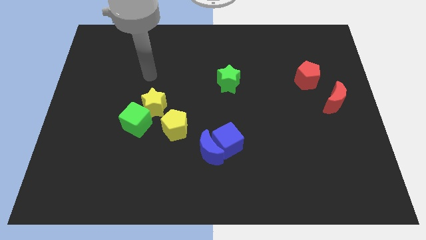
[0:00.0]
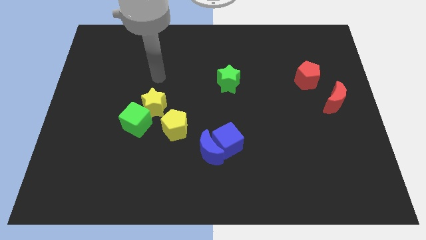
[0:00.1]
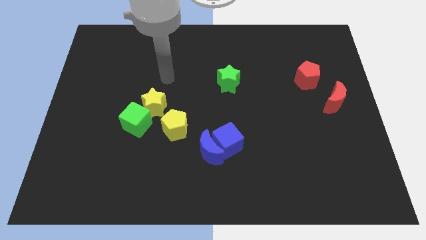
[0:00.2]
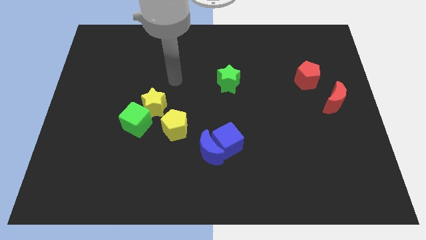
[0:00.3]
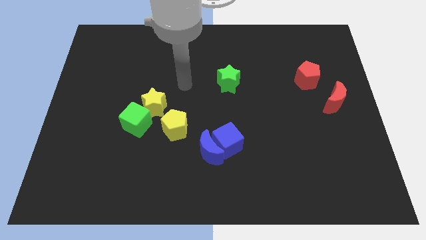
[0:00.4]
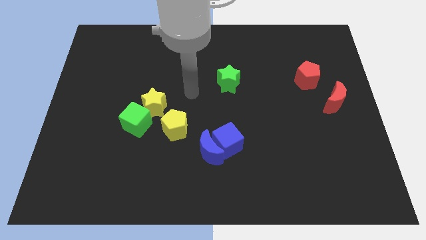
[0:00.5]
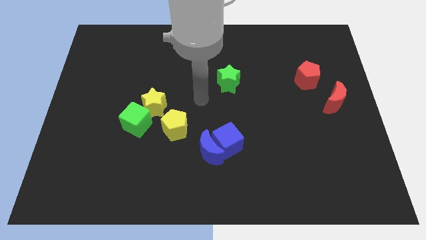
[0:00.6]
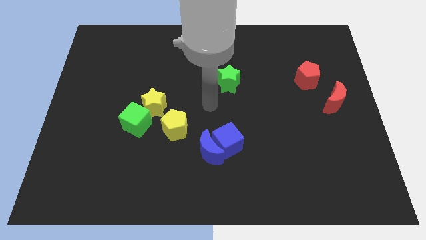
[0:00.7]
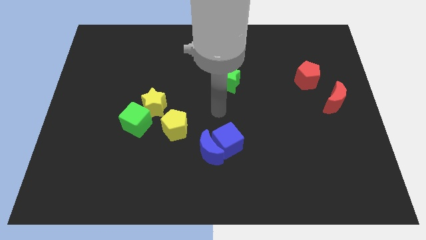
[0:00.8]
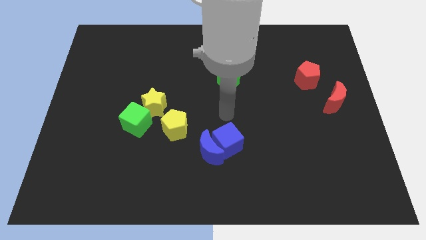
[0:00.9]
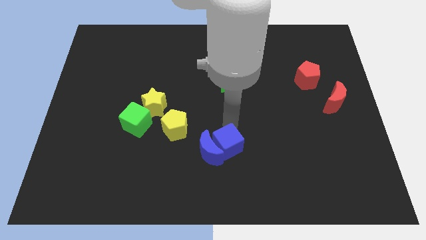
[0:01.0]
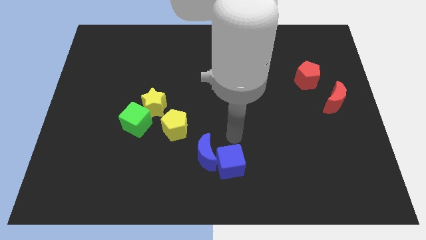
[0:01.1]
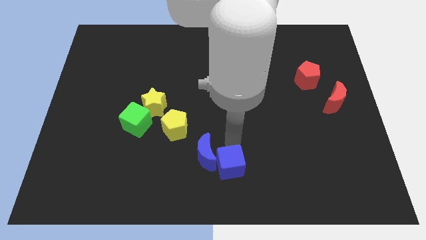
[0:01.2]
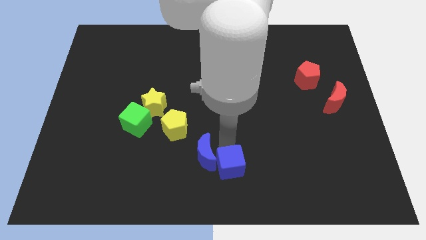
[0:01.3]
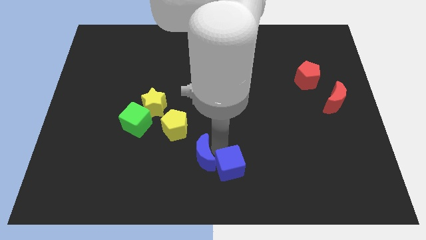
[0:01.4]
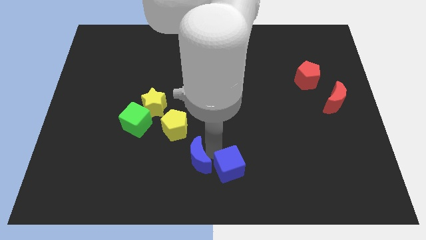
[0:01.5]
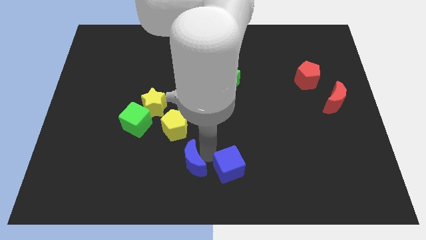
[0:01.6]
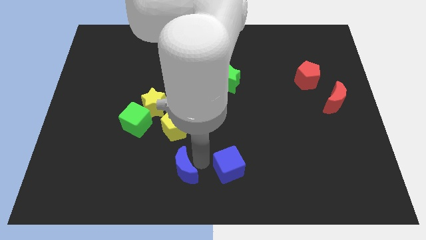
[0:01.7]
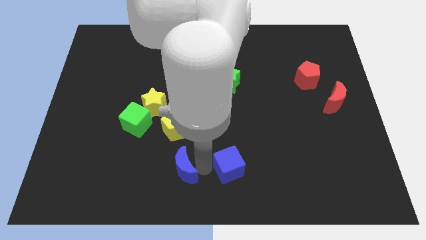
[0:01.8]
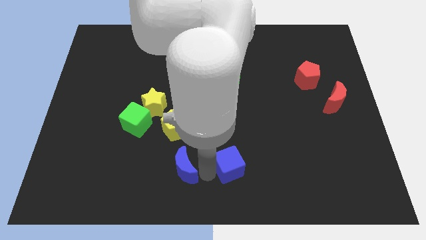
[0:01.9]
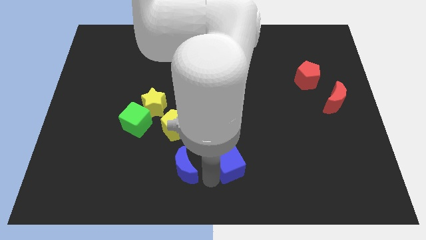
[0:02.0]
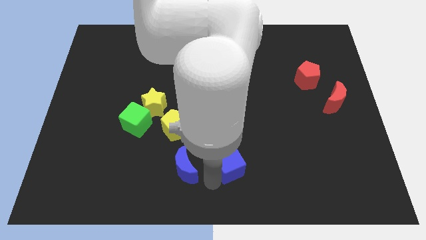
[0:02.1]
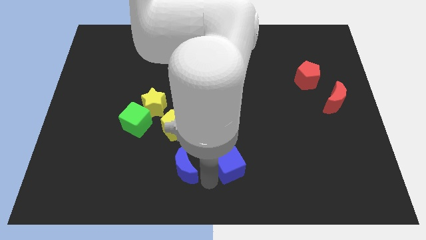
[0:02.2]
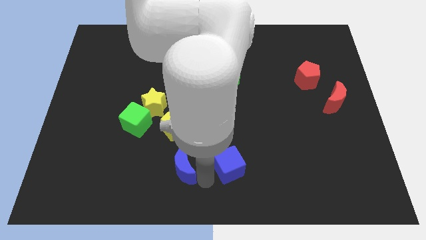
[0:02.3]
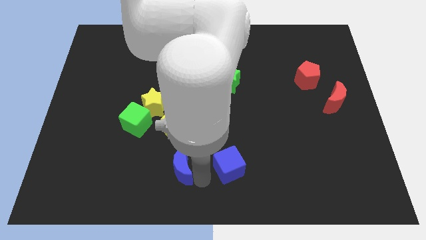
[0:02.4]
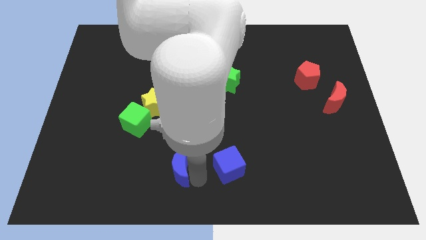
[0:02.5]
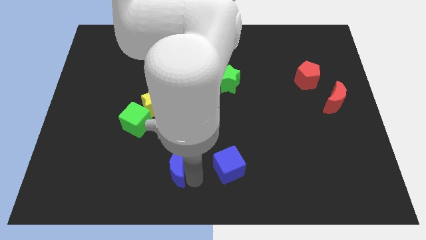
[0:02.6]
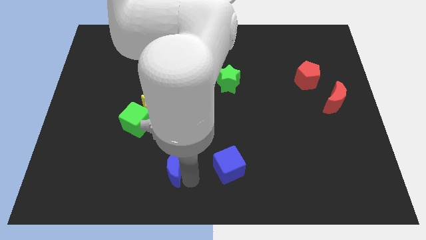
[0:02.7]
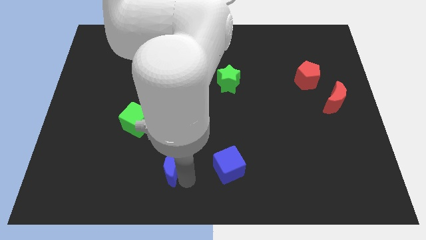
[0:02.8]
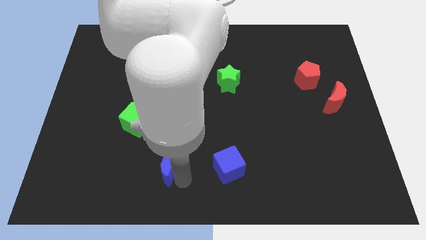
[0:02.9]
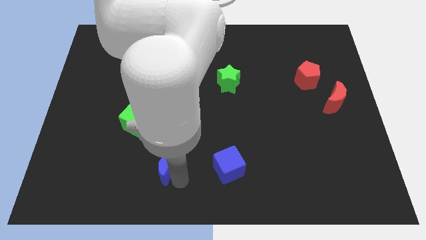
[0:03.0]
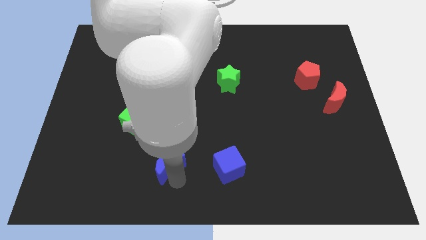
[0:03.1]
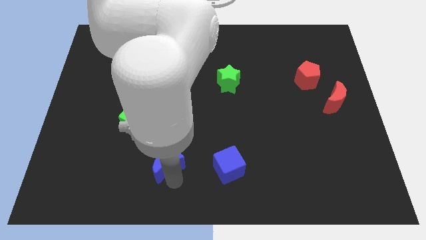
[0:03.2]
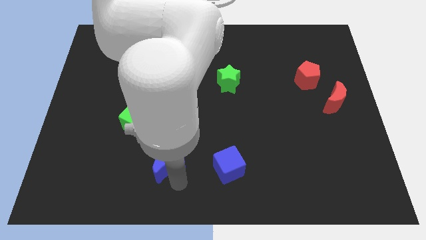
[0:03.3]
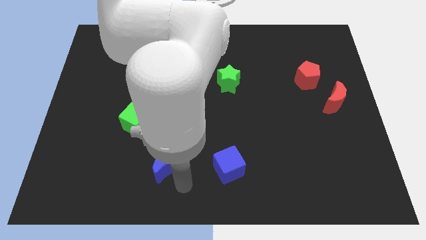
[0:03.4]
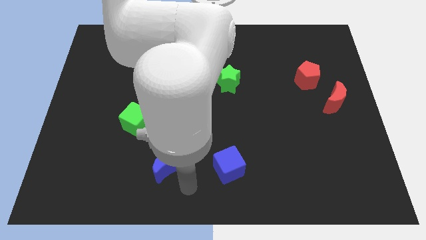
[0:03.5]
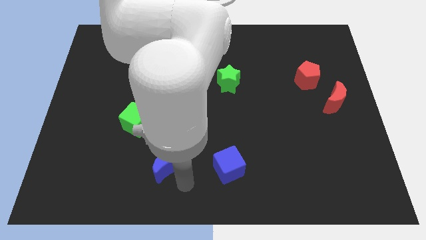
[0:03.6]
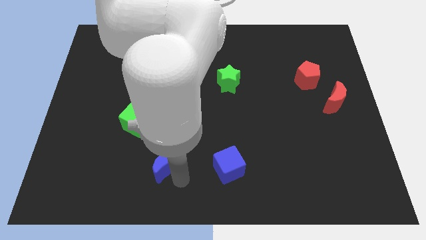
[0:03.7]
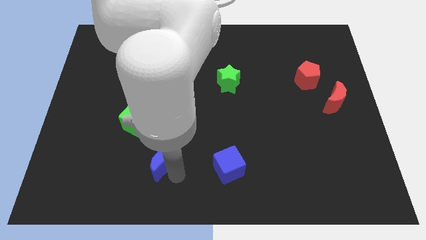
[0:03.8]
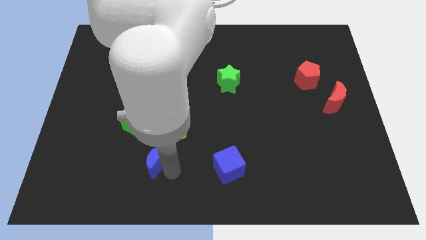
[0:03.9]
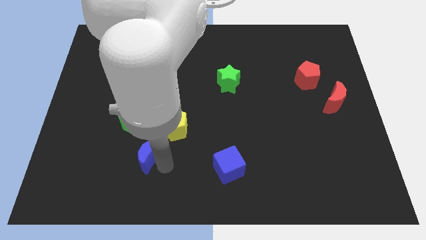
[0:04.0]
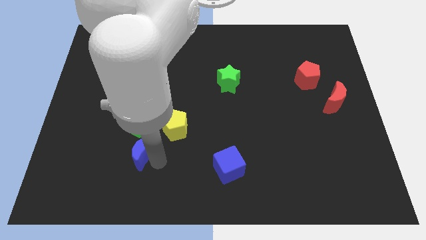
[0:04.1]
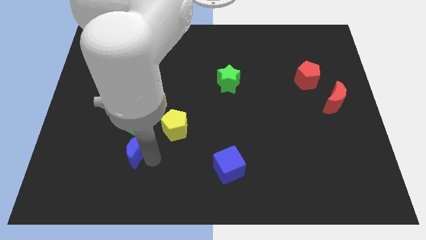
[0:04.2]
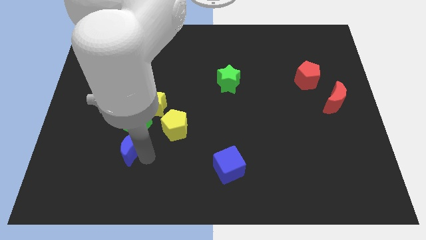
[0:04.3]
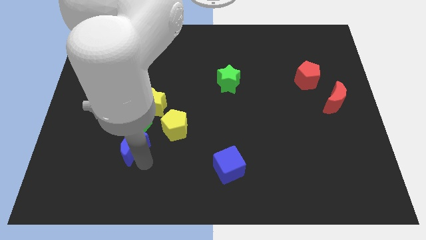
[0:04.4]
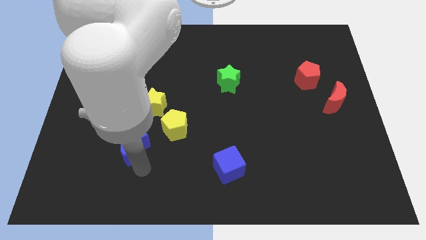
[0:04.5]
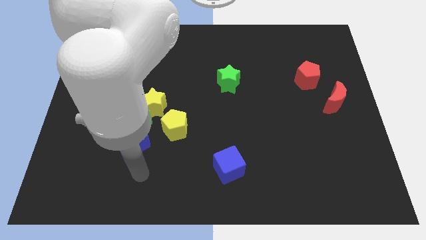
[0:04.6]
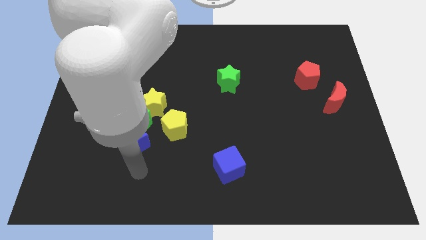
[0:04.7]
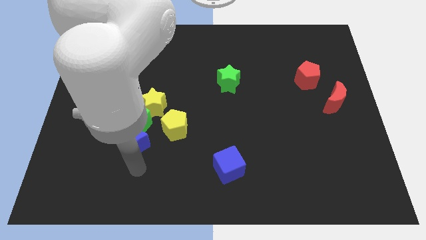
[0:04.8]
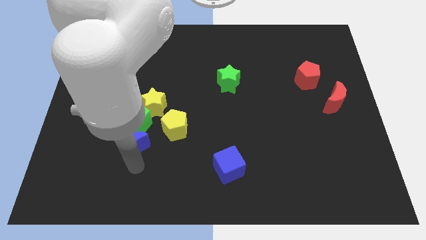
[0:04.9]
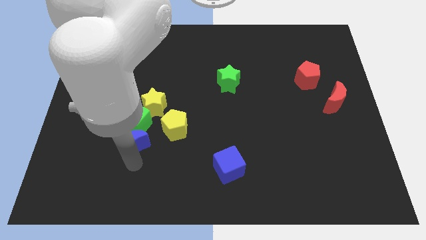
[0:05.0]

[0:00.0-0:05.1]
move the blue moon to the left of the yellow pentagon

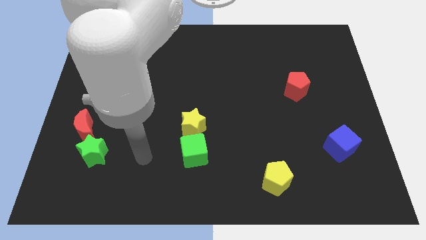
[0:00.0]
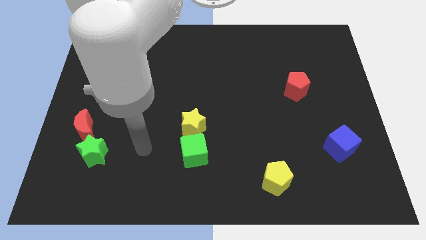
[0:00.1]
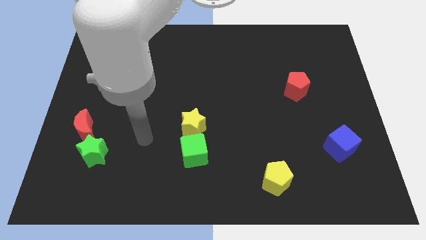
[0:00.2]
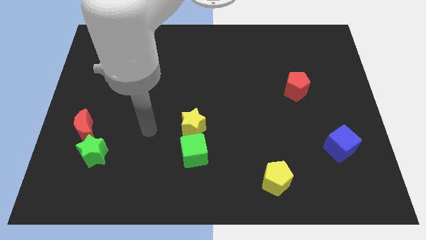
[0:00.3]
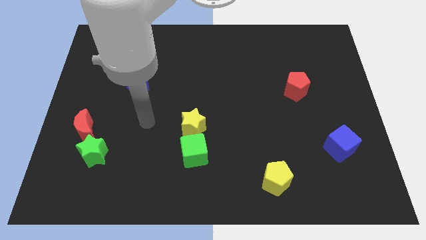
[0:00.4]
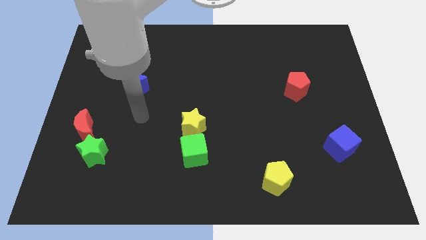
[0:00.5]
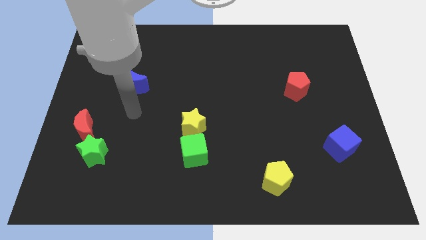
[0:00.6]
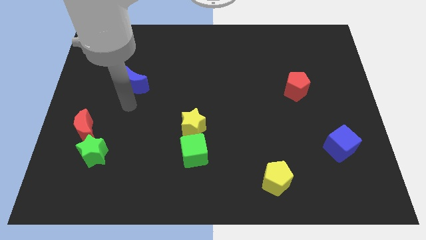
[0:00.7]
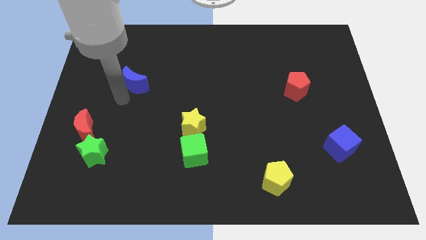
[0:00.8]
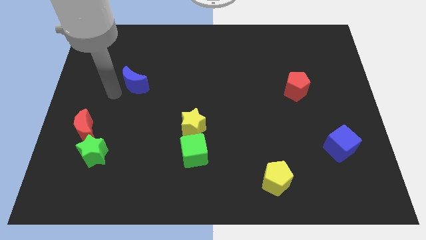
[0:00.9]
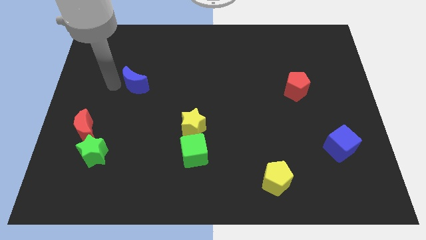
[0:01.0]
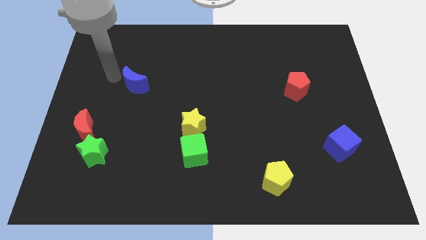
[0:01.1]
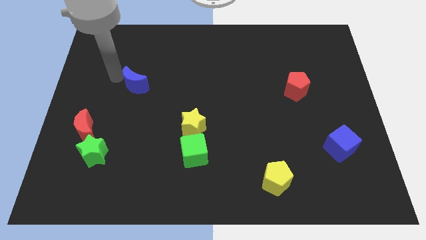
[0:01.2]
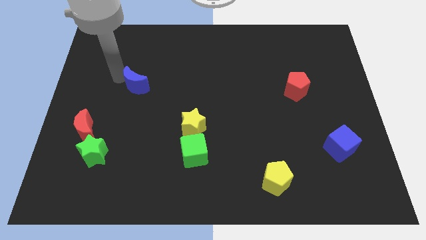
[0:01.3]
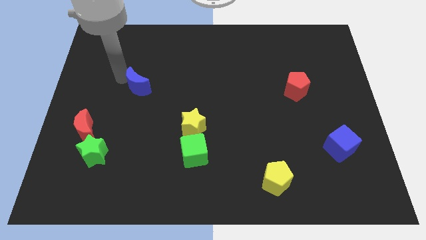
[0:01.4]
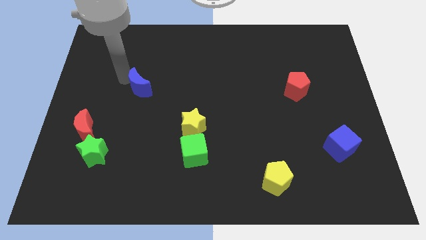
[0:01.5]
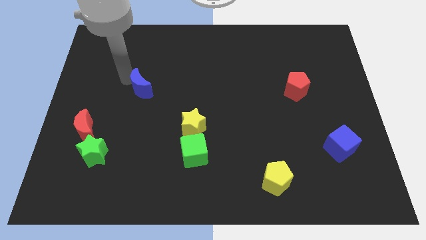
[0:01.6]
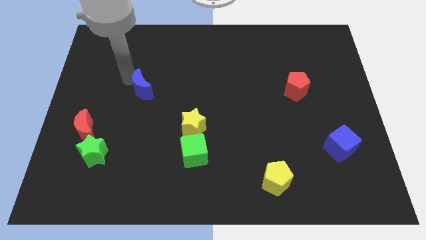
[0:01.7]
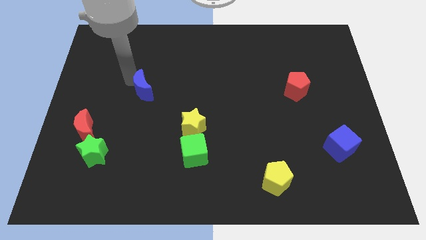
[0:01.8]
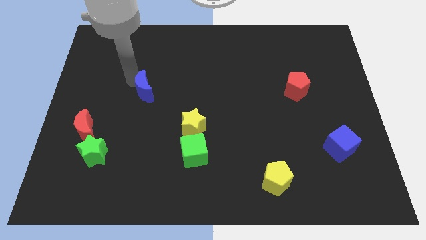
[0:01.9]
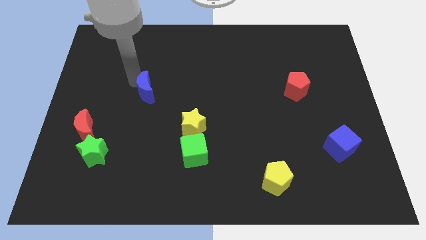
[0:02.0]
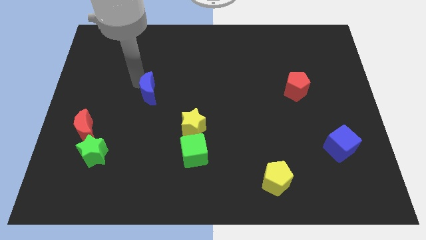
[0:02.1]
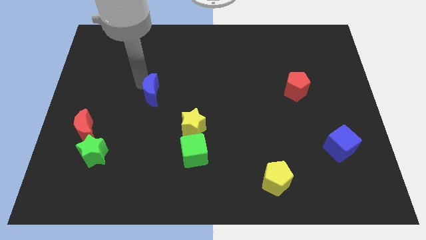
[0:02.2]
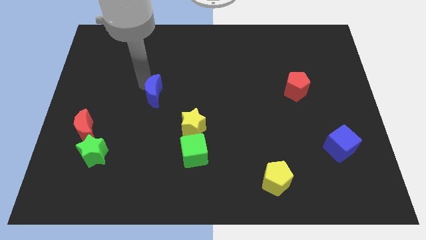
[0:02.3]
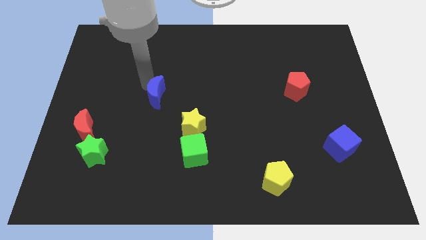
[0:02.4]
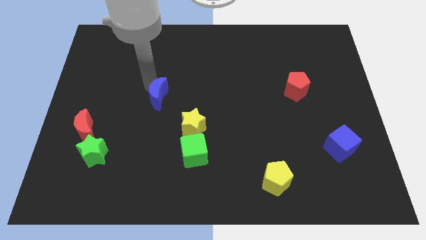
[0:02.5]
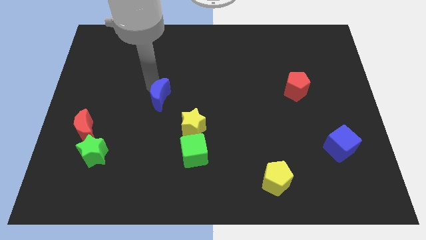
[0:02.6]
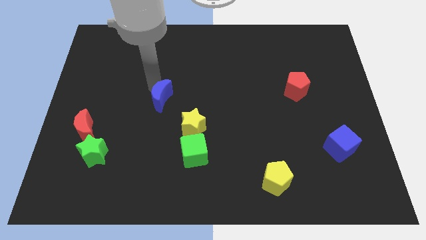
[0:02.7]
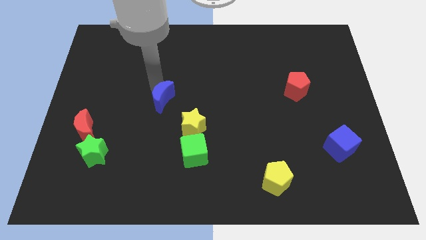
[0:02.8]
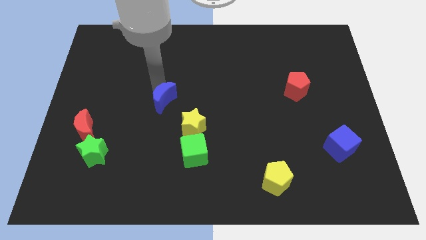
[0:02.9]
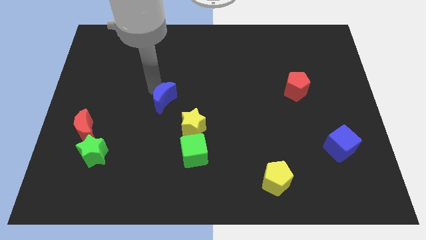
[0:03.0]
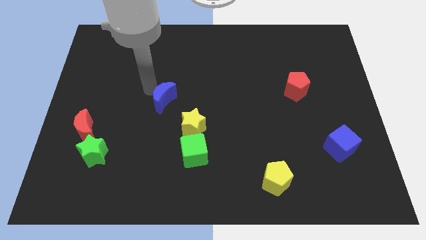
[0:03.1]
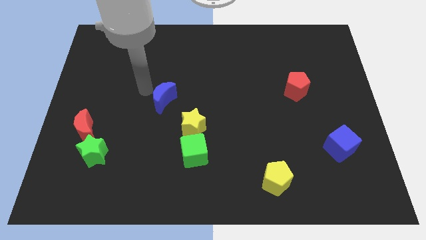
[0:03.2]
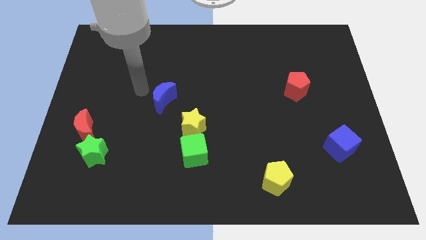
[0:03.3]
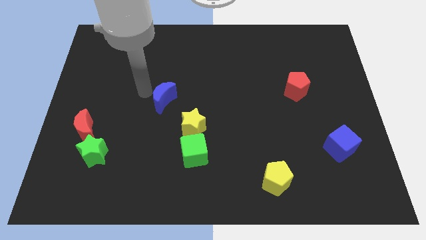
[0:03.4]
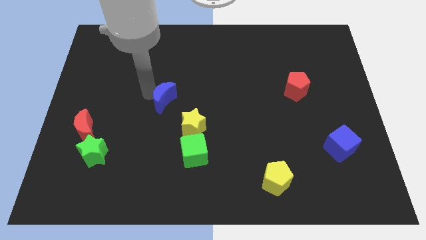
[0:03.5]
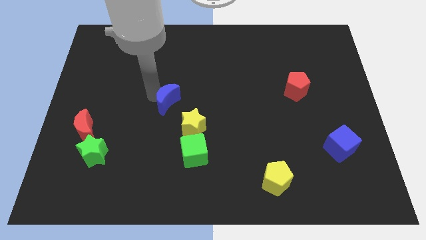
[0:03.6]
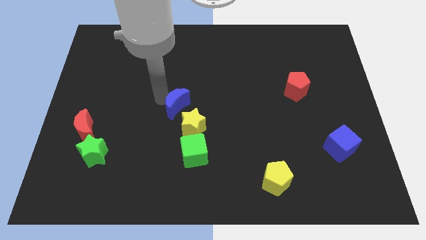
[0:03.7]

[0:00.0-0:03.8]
move the blue moon to the top of the green cube
